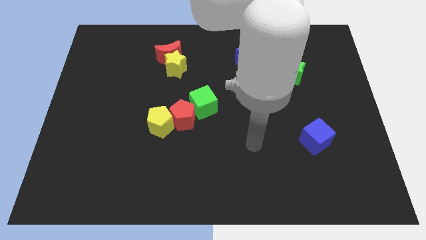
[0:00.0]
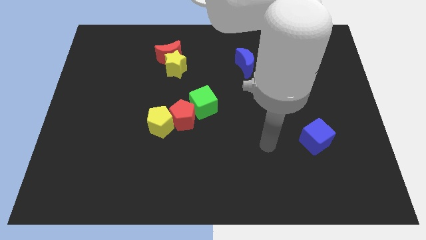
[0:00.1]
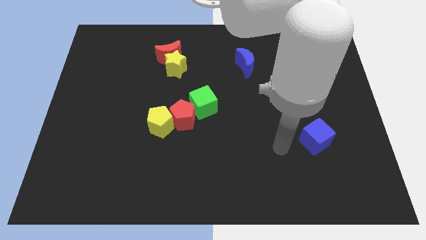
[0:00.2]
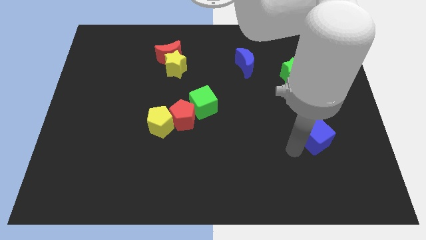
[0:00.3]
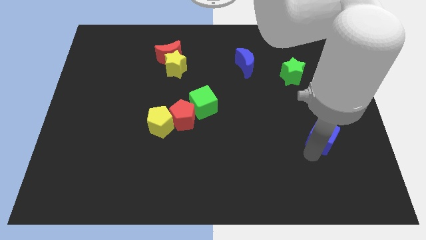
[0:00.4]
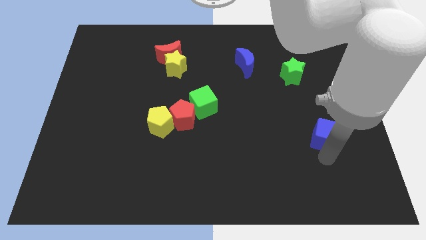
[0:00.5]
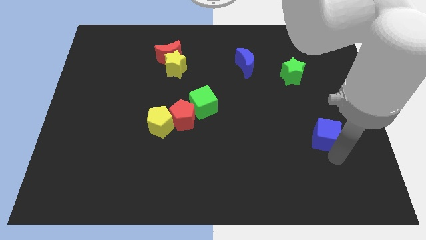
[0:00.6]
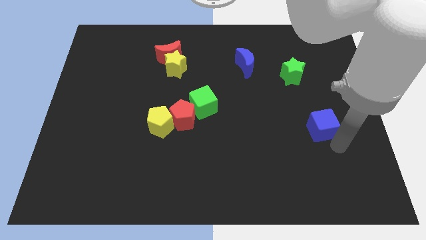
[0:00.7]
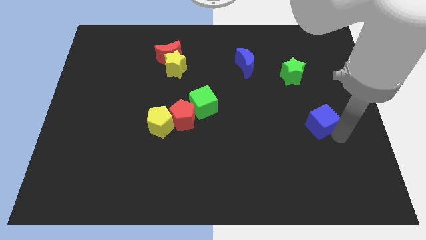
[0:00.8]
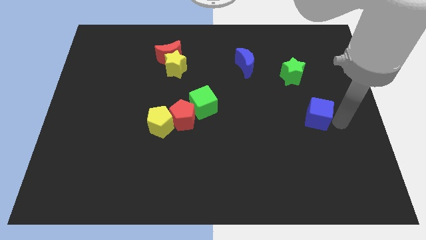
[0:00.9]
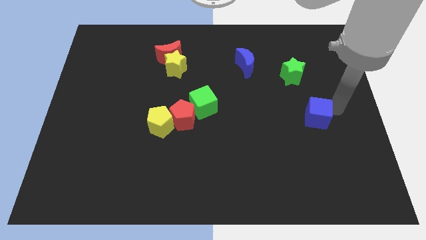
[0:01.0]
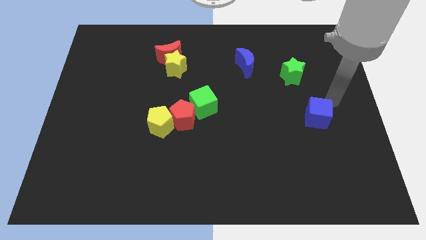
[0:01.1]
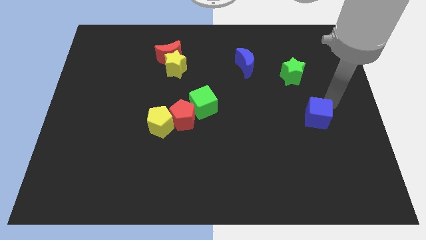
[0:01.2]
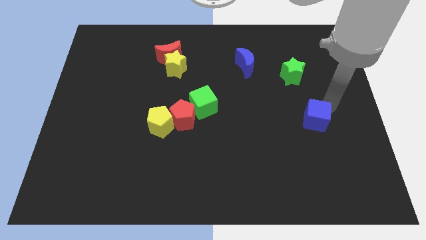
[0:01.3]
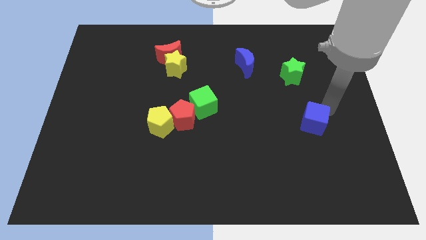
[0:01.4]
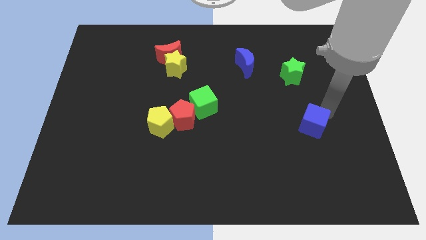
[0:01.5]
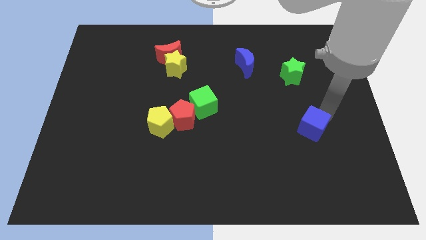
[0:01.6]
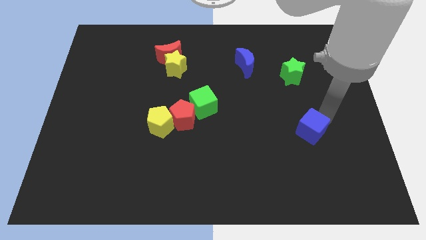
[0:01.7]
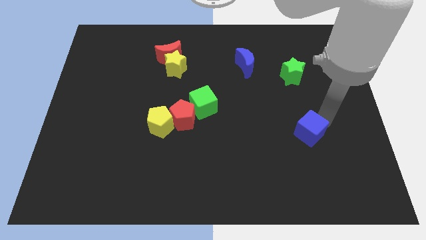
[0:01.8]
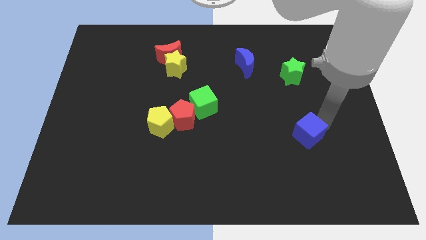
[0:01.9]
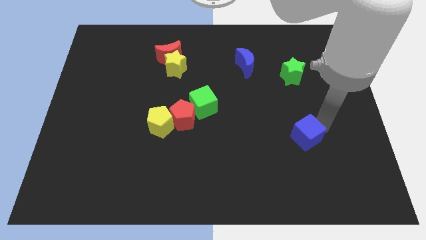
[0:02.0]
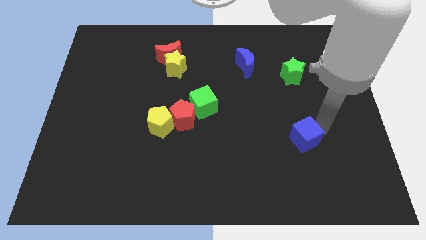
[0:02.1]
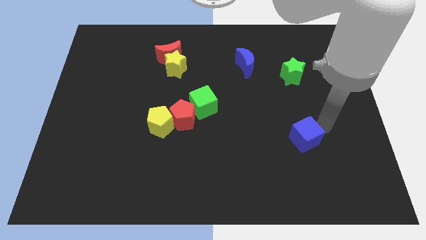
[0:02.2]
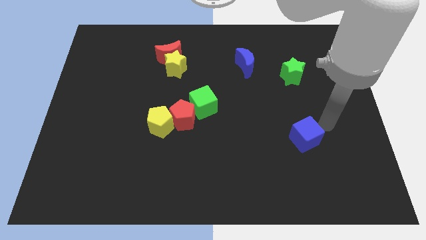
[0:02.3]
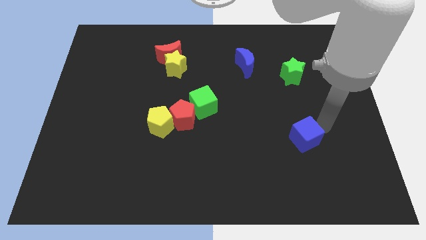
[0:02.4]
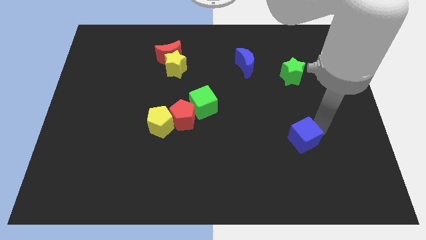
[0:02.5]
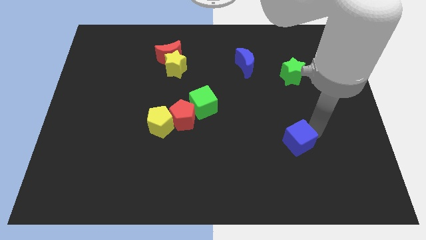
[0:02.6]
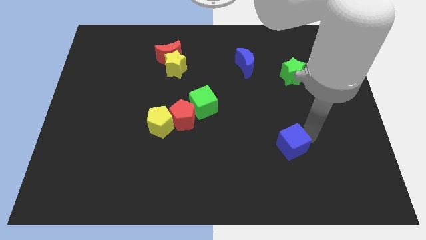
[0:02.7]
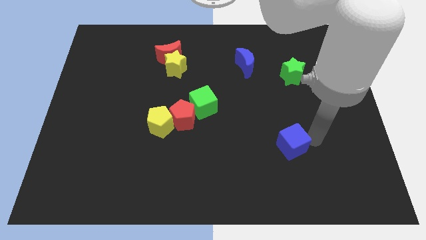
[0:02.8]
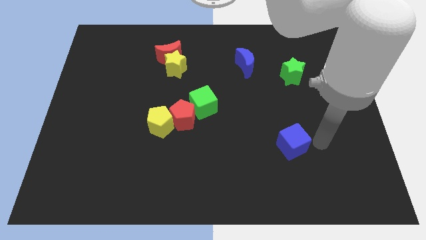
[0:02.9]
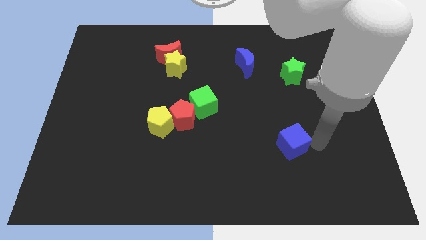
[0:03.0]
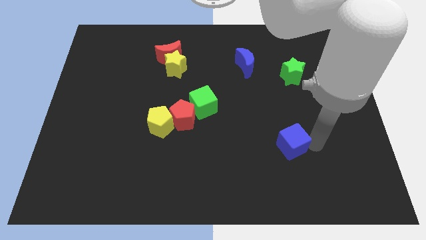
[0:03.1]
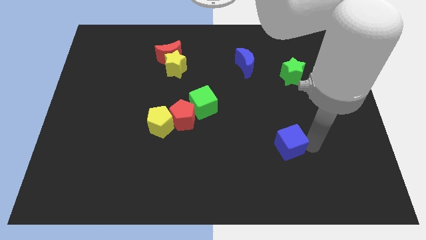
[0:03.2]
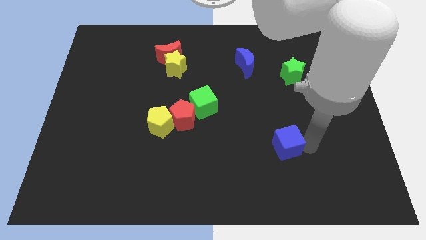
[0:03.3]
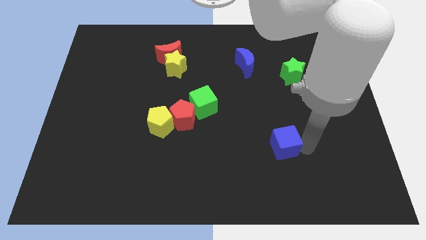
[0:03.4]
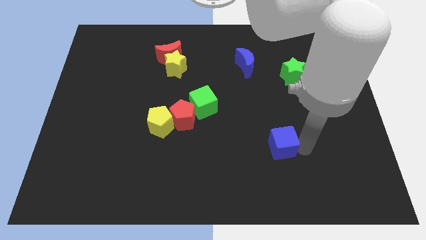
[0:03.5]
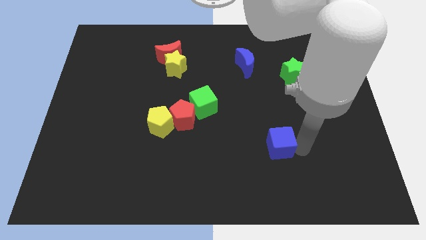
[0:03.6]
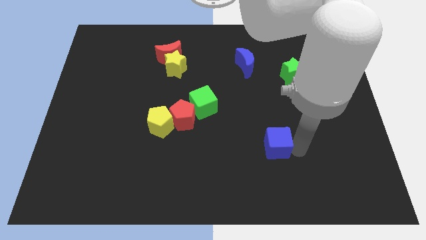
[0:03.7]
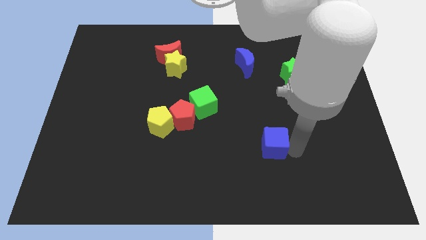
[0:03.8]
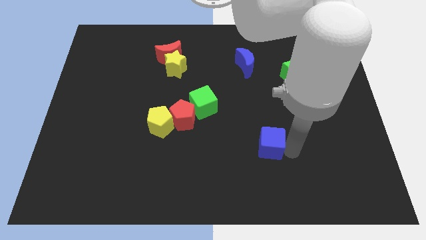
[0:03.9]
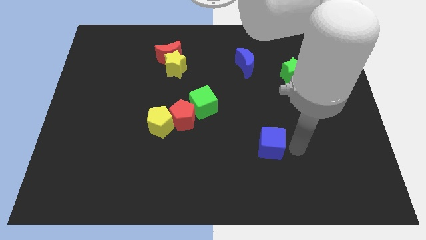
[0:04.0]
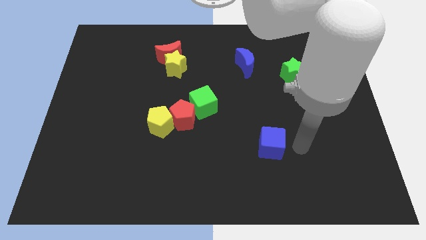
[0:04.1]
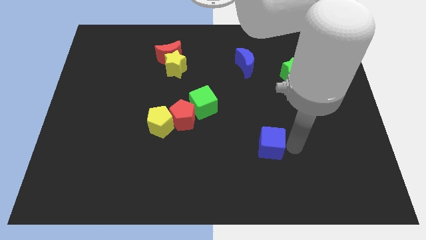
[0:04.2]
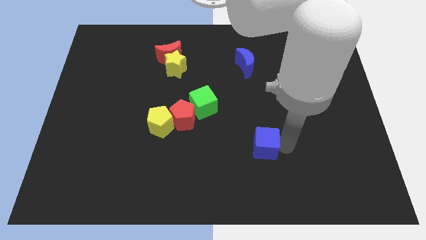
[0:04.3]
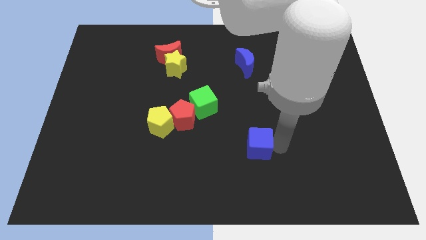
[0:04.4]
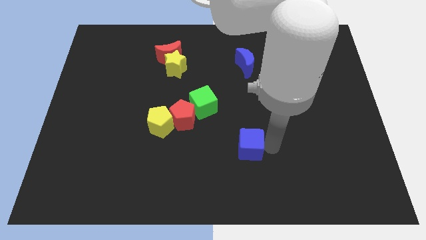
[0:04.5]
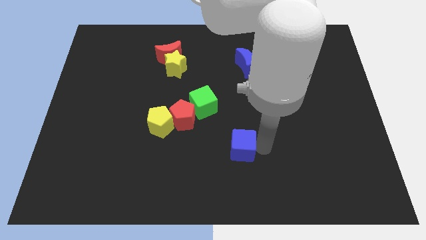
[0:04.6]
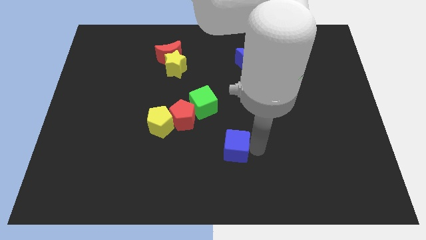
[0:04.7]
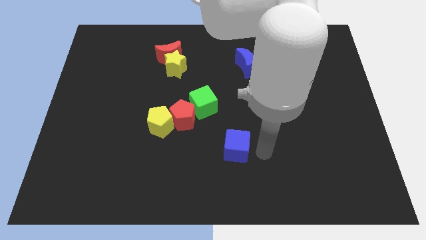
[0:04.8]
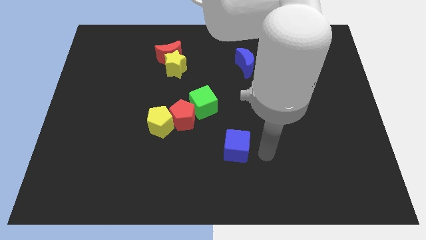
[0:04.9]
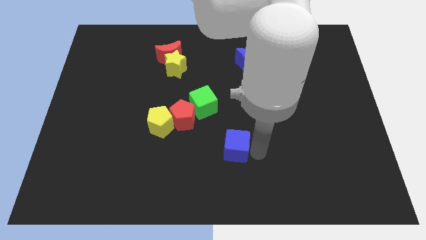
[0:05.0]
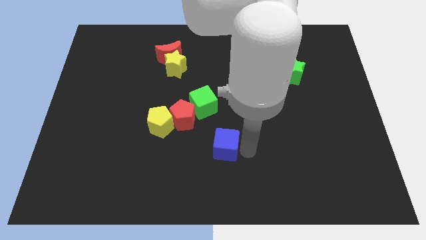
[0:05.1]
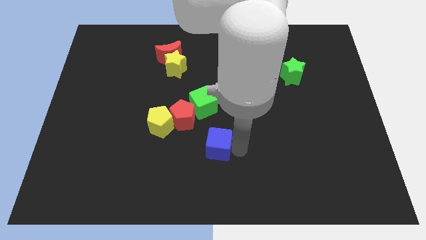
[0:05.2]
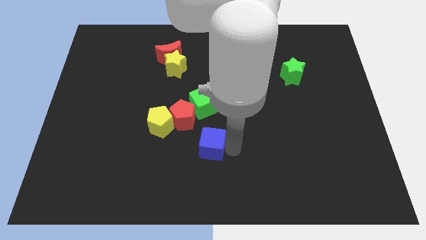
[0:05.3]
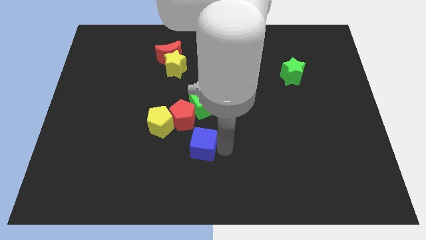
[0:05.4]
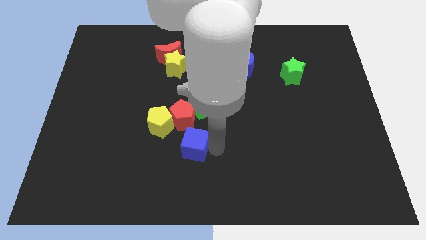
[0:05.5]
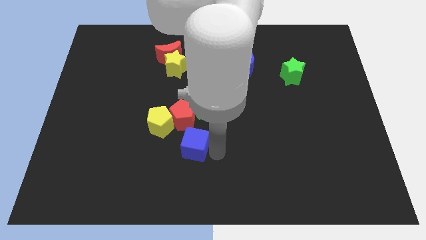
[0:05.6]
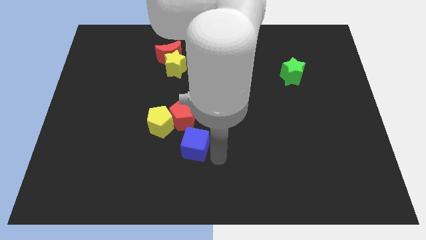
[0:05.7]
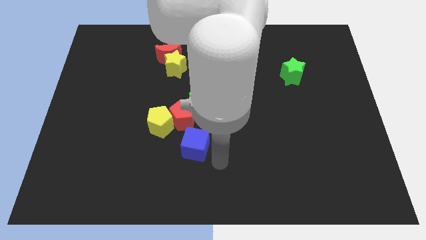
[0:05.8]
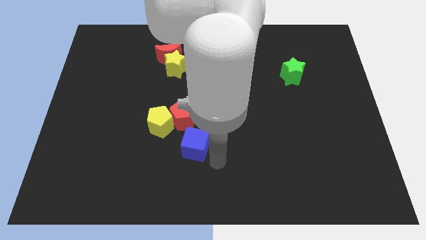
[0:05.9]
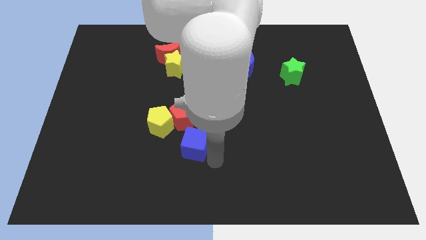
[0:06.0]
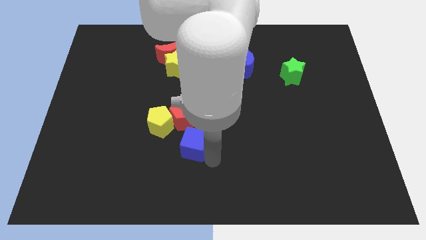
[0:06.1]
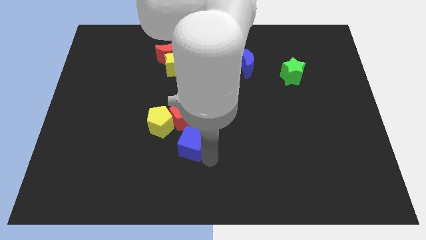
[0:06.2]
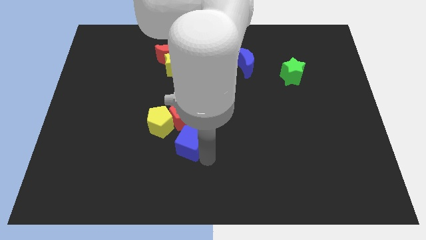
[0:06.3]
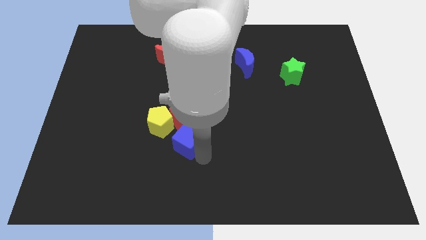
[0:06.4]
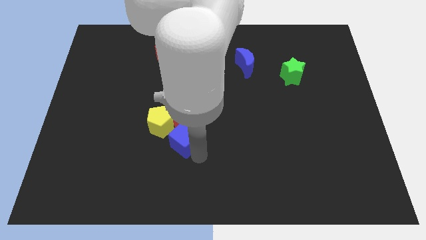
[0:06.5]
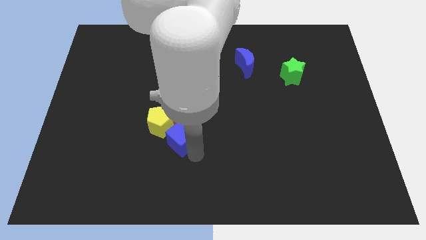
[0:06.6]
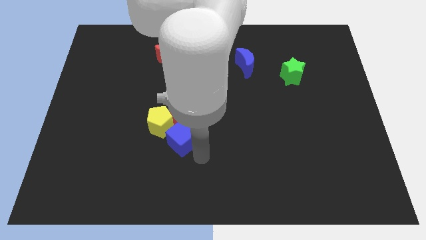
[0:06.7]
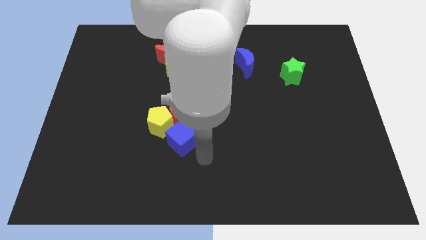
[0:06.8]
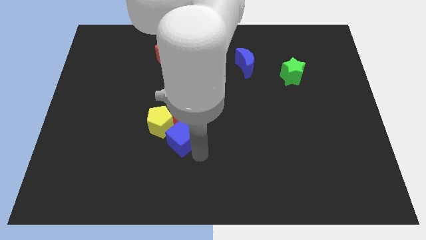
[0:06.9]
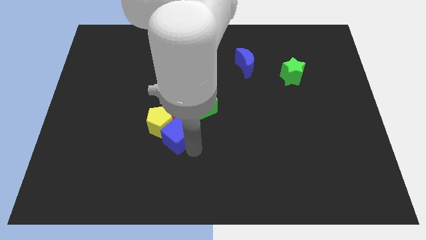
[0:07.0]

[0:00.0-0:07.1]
push the blue cube close to the yellow pentagon
